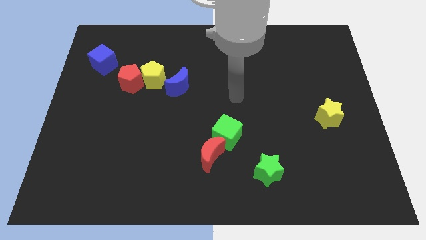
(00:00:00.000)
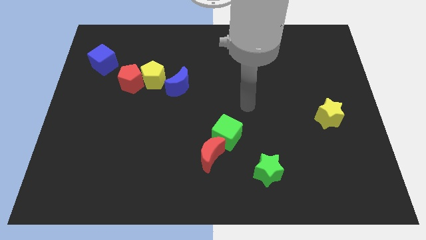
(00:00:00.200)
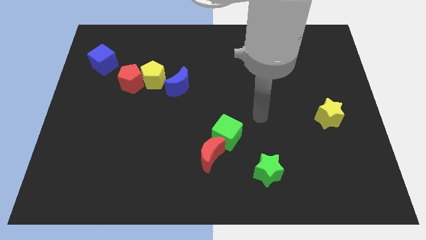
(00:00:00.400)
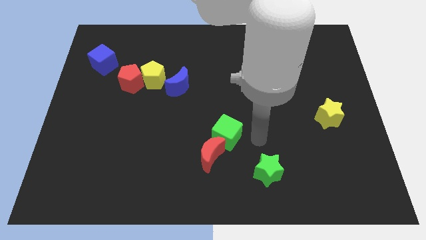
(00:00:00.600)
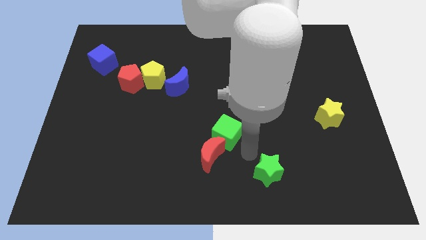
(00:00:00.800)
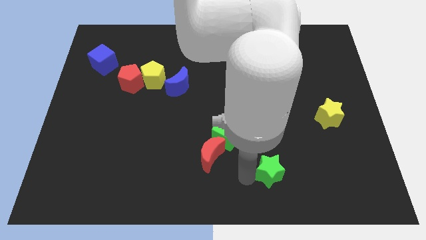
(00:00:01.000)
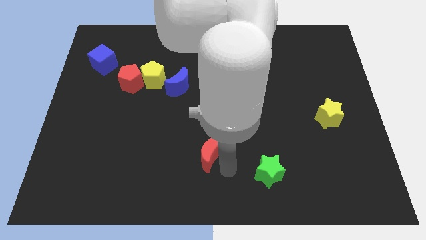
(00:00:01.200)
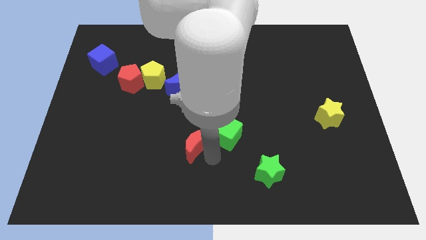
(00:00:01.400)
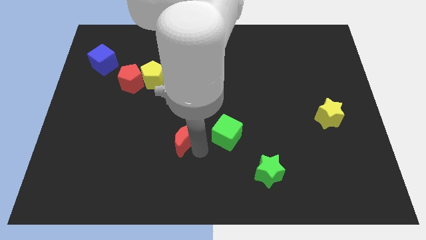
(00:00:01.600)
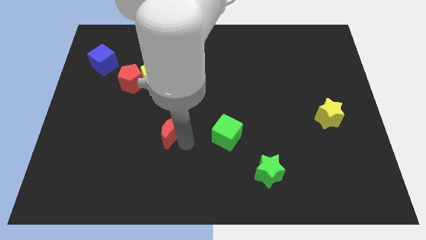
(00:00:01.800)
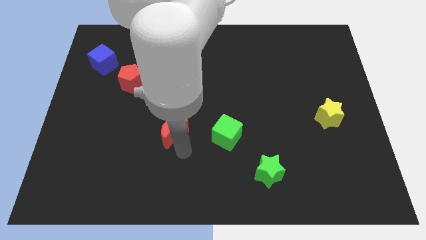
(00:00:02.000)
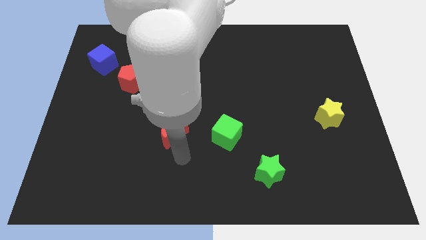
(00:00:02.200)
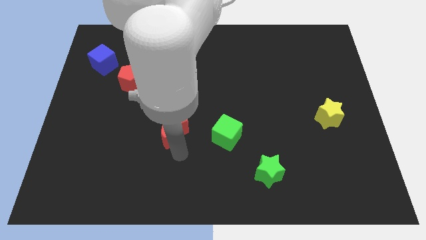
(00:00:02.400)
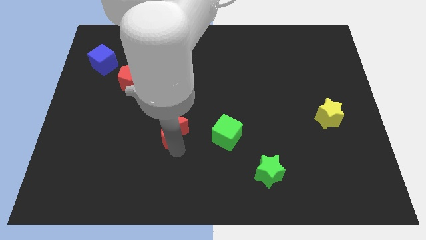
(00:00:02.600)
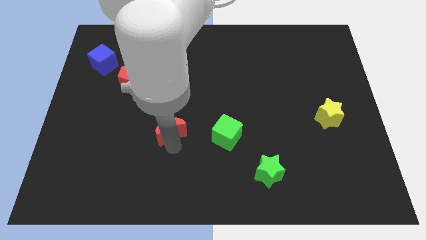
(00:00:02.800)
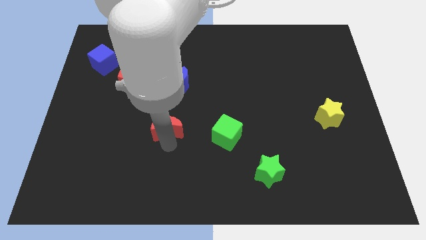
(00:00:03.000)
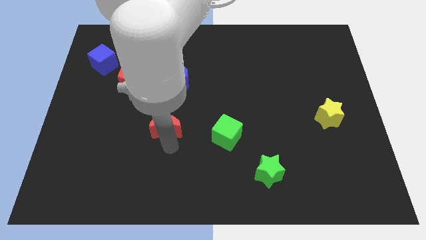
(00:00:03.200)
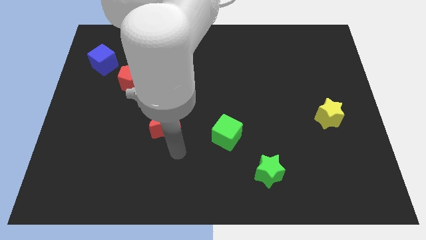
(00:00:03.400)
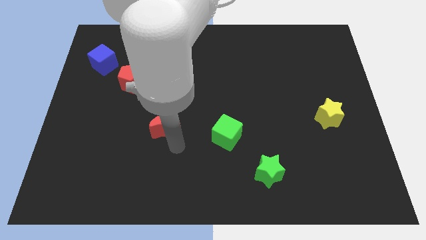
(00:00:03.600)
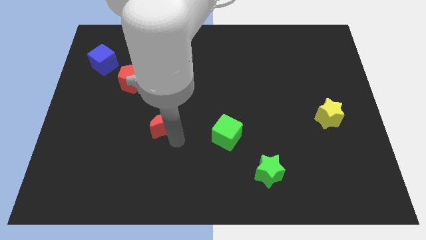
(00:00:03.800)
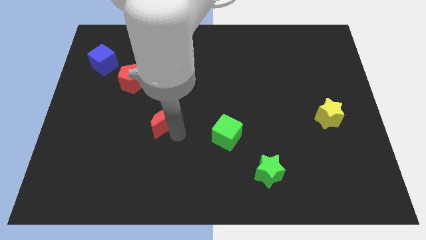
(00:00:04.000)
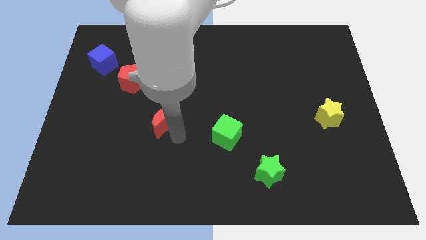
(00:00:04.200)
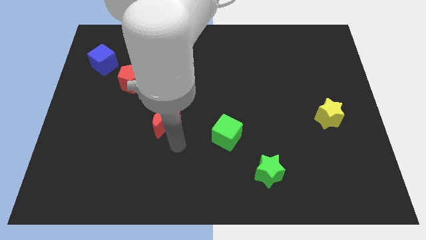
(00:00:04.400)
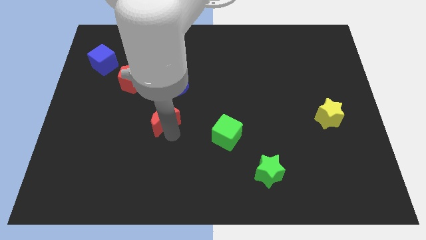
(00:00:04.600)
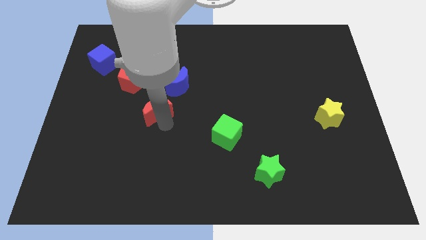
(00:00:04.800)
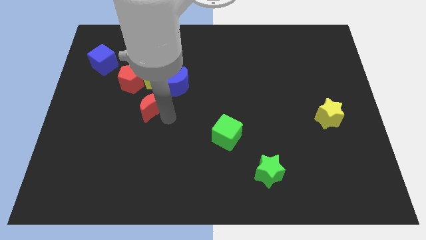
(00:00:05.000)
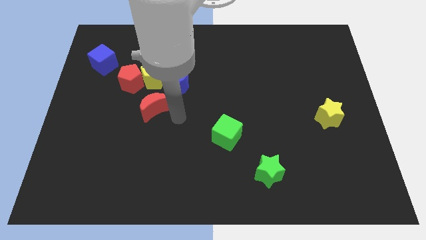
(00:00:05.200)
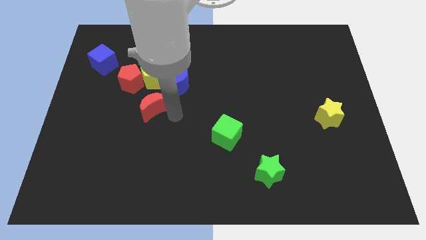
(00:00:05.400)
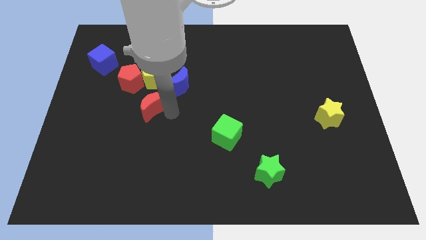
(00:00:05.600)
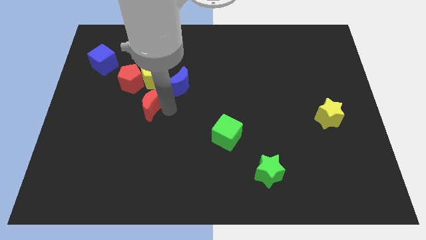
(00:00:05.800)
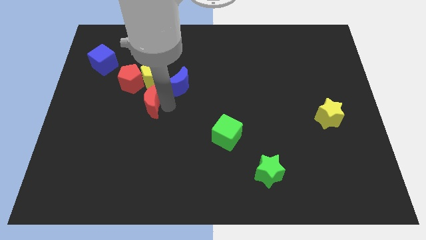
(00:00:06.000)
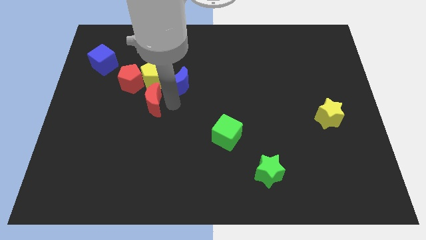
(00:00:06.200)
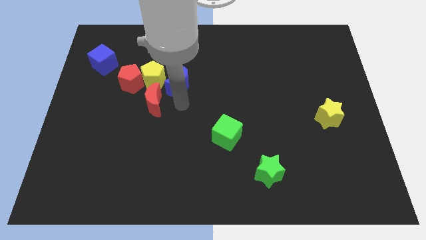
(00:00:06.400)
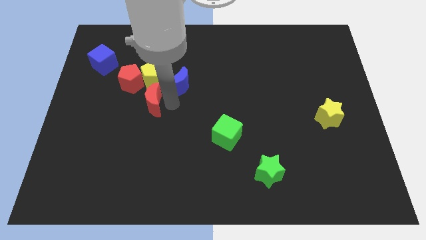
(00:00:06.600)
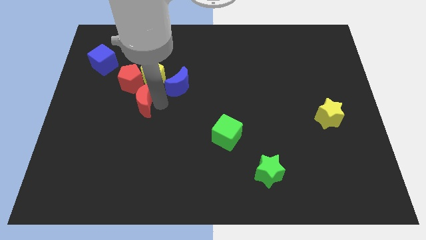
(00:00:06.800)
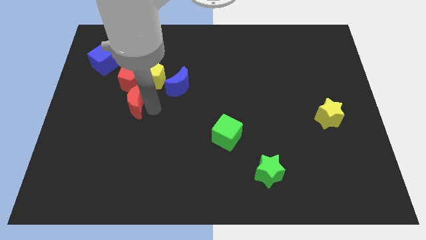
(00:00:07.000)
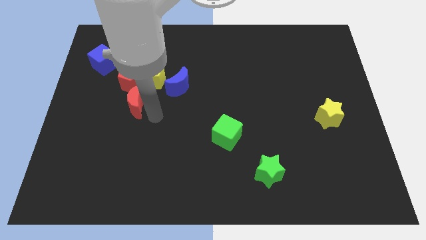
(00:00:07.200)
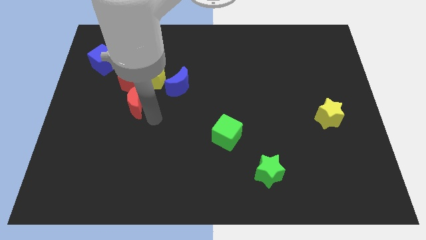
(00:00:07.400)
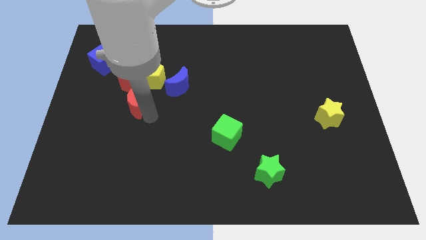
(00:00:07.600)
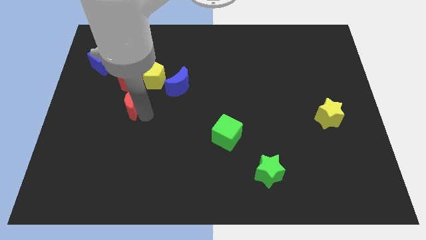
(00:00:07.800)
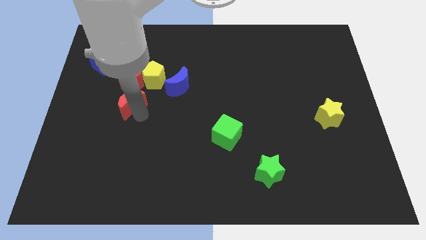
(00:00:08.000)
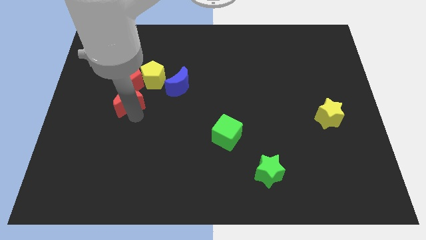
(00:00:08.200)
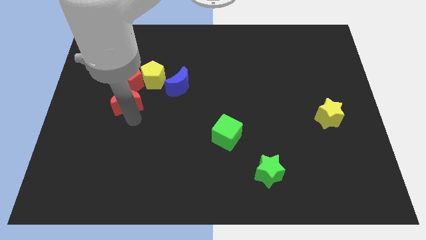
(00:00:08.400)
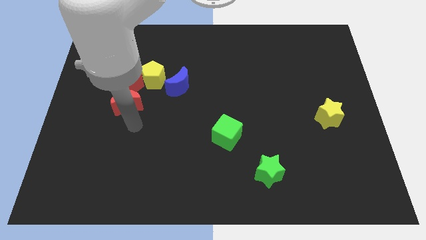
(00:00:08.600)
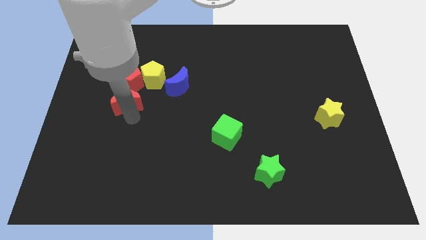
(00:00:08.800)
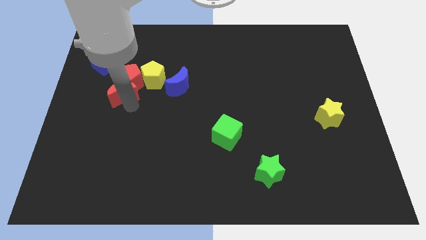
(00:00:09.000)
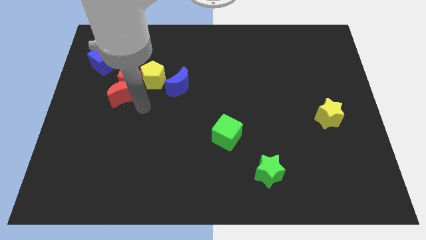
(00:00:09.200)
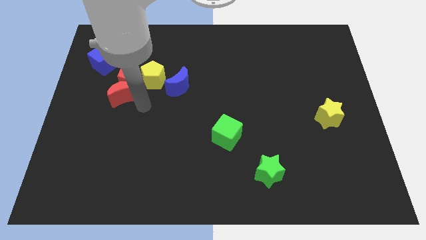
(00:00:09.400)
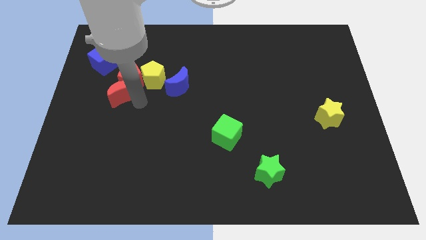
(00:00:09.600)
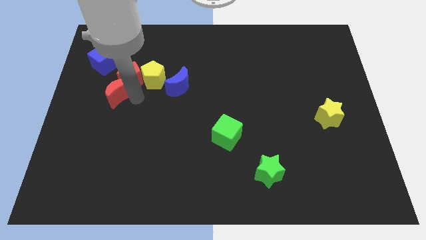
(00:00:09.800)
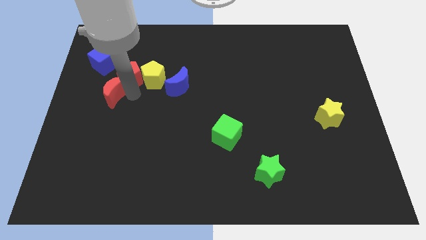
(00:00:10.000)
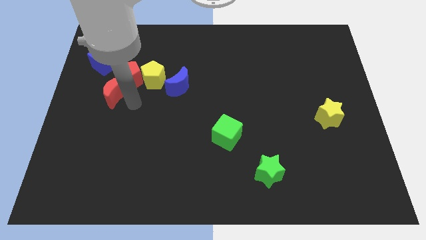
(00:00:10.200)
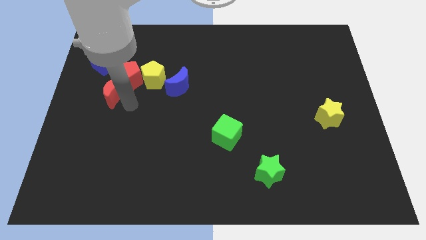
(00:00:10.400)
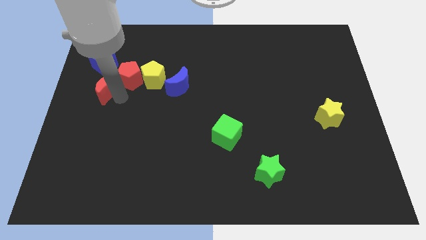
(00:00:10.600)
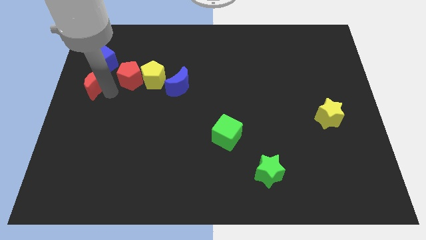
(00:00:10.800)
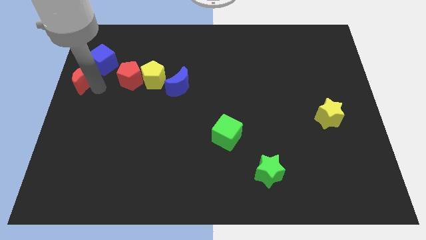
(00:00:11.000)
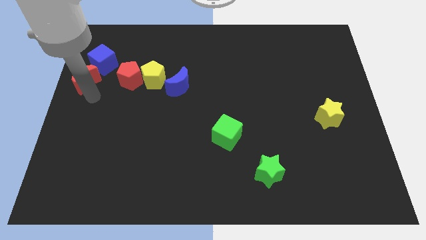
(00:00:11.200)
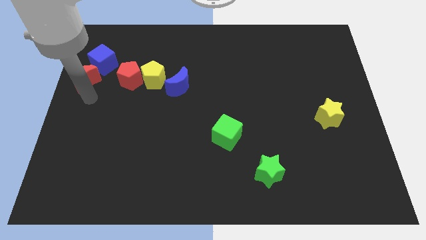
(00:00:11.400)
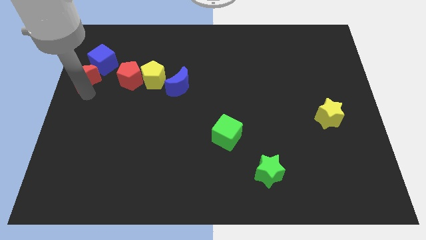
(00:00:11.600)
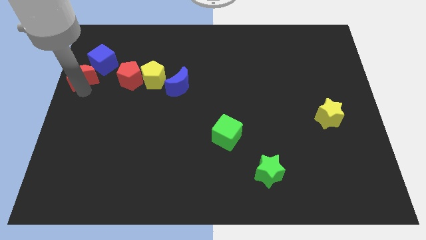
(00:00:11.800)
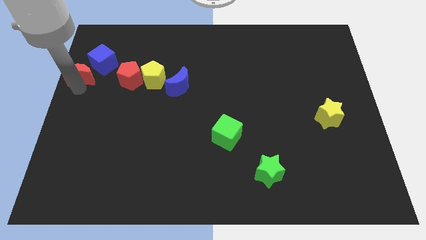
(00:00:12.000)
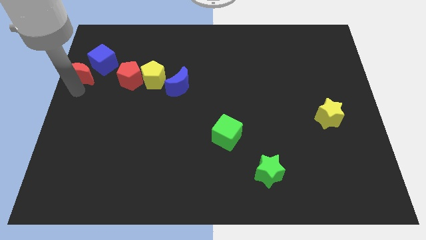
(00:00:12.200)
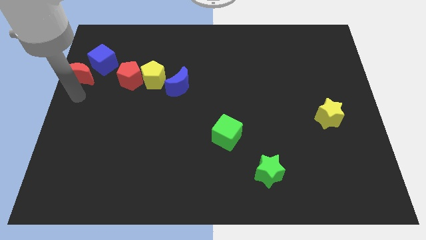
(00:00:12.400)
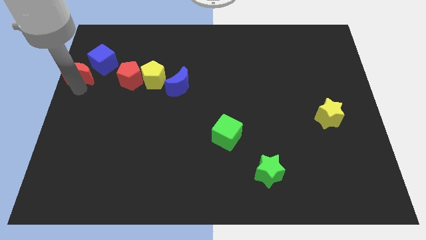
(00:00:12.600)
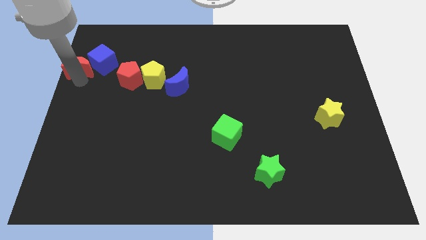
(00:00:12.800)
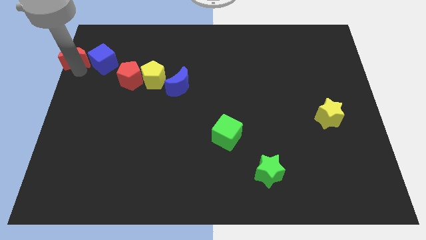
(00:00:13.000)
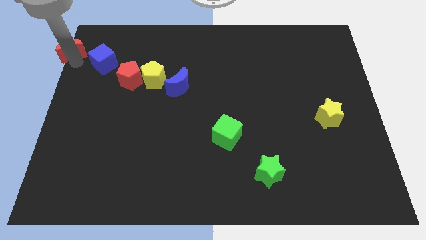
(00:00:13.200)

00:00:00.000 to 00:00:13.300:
slide the red moon to the top left of the board
